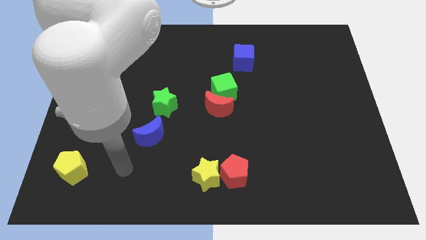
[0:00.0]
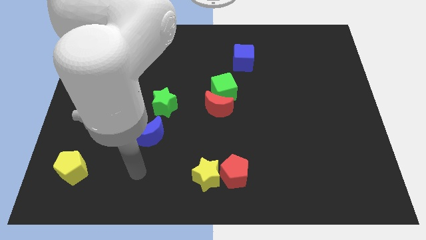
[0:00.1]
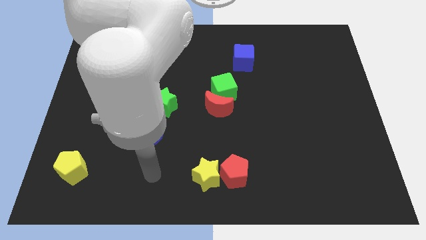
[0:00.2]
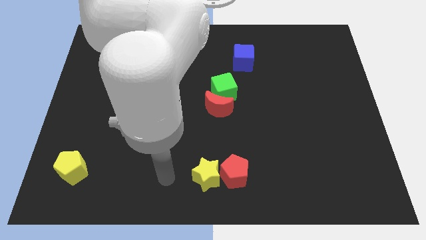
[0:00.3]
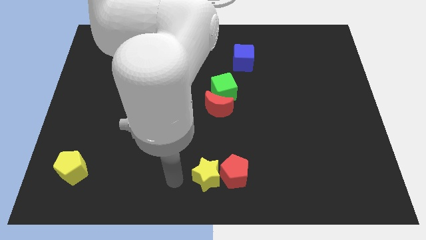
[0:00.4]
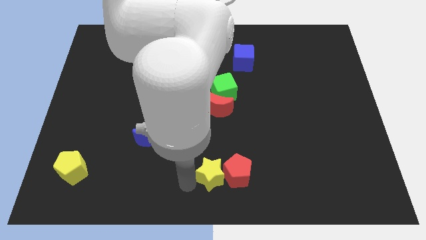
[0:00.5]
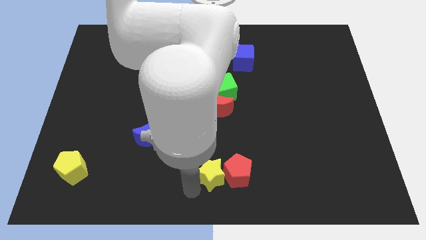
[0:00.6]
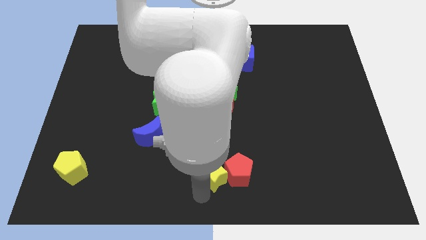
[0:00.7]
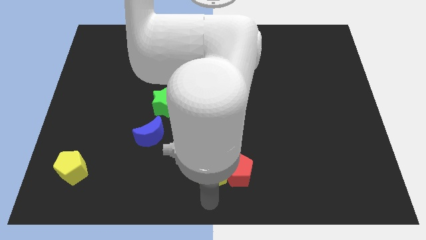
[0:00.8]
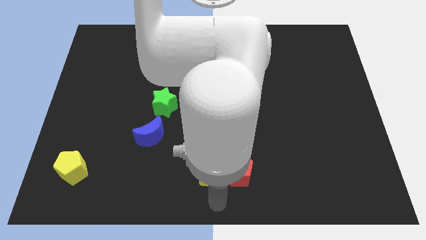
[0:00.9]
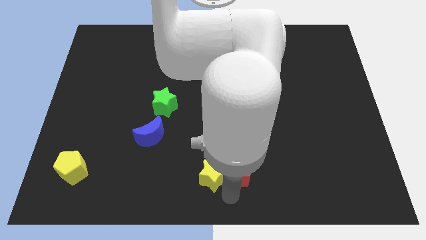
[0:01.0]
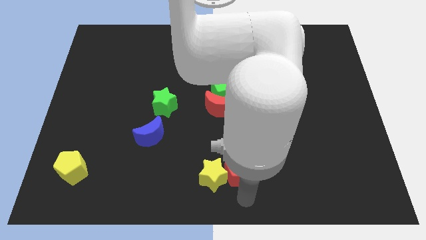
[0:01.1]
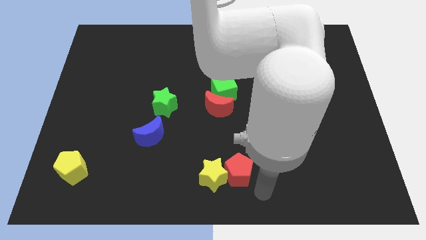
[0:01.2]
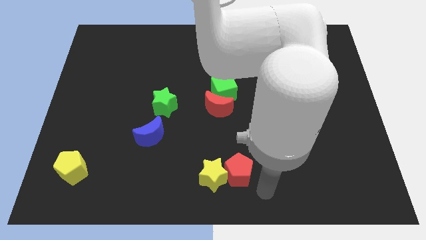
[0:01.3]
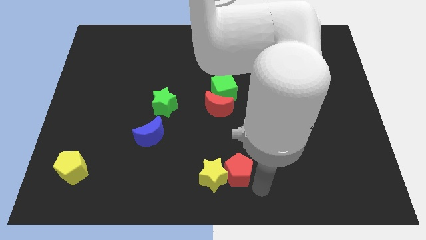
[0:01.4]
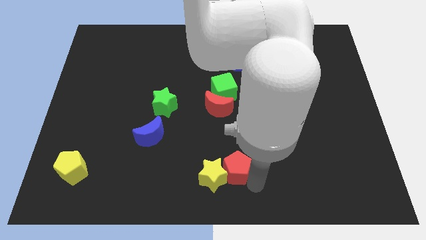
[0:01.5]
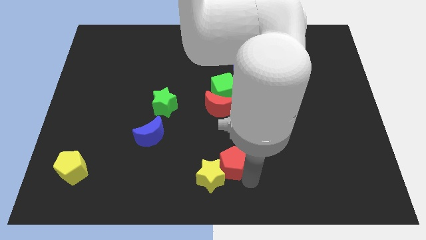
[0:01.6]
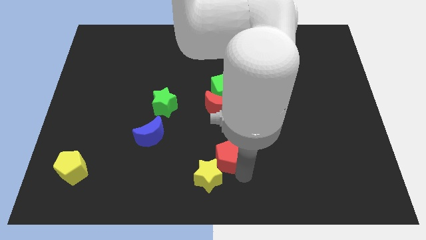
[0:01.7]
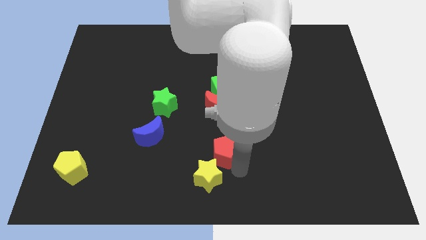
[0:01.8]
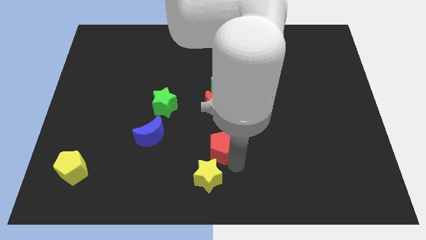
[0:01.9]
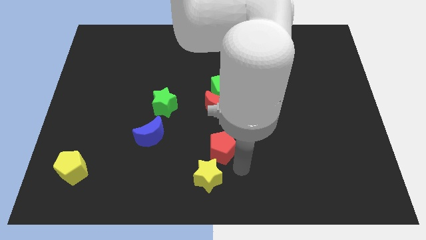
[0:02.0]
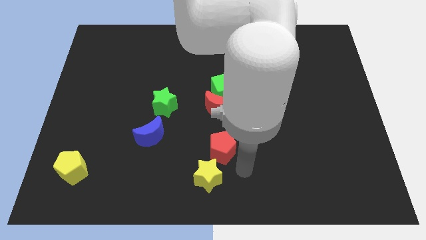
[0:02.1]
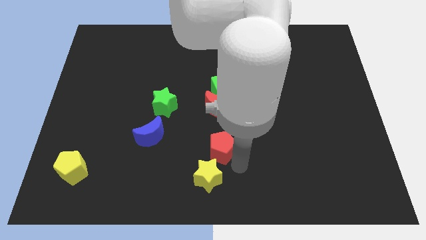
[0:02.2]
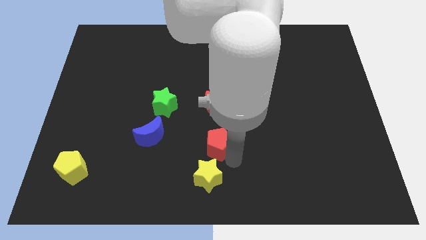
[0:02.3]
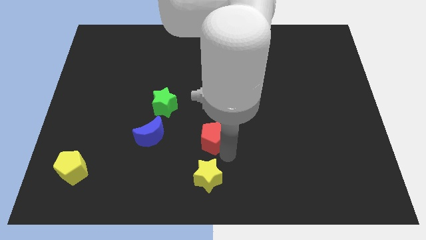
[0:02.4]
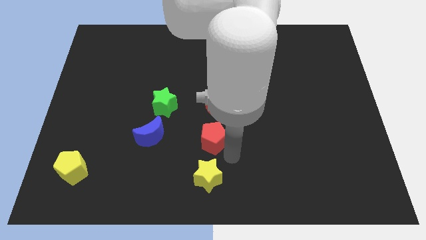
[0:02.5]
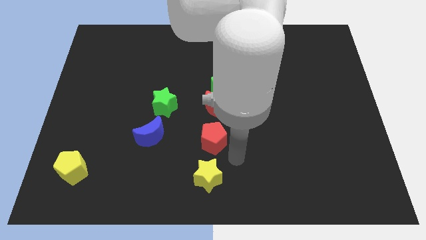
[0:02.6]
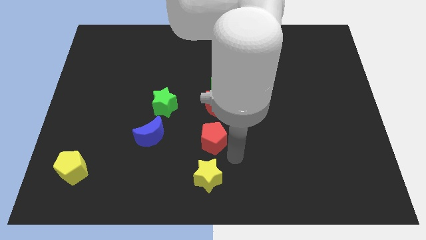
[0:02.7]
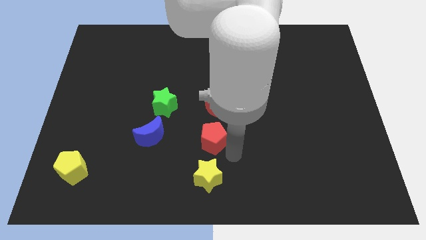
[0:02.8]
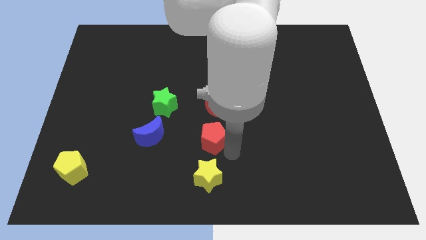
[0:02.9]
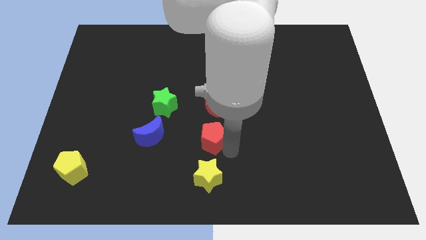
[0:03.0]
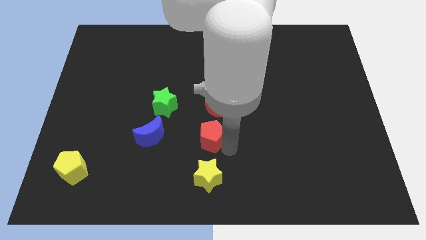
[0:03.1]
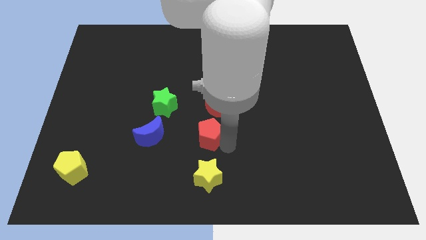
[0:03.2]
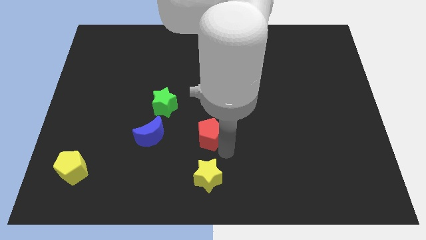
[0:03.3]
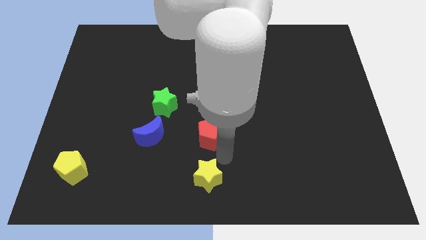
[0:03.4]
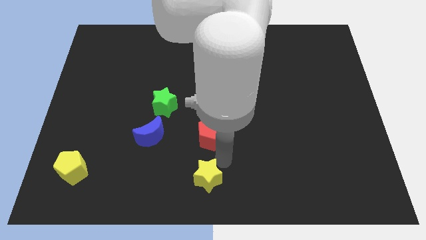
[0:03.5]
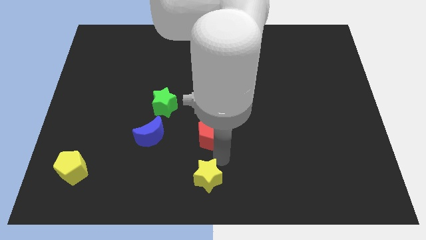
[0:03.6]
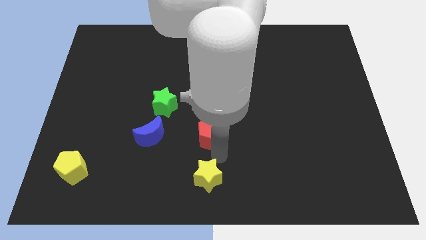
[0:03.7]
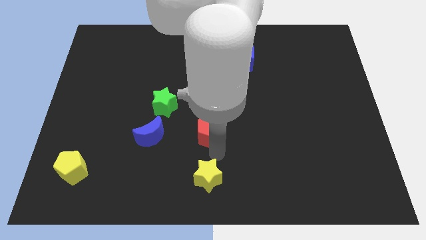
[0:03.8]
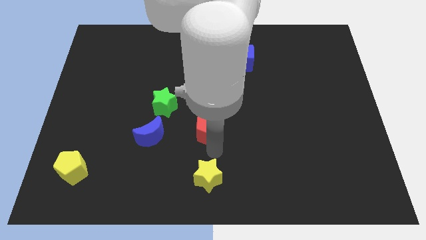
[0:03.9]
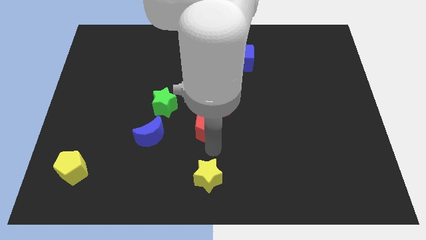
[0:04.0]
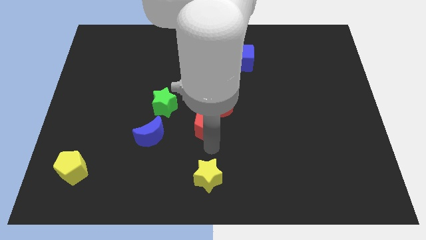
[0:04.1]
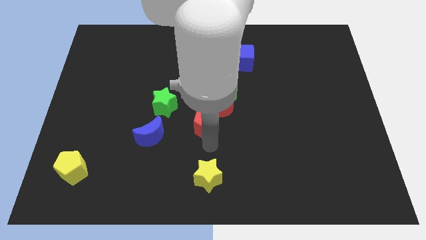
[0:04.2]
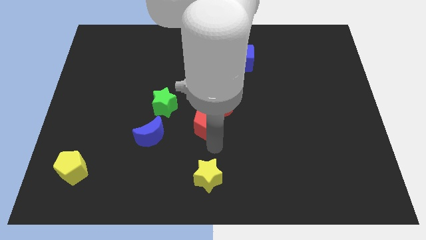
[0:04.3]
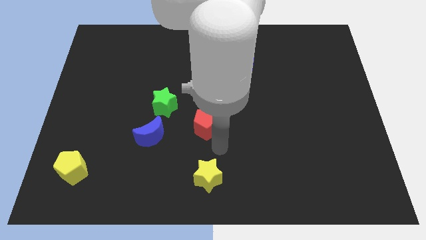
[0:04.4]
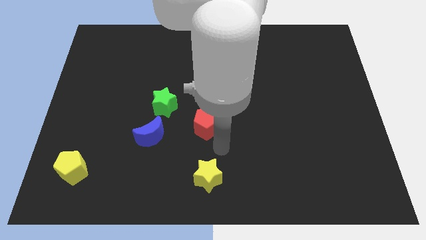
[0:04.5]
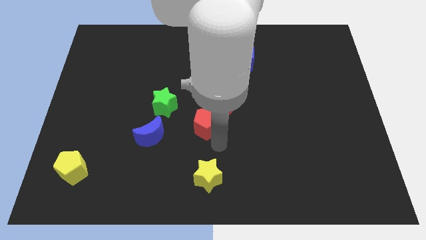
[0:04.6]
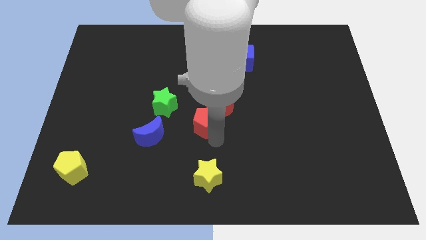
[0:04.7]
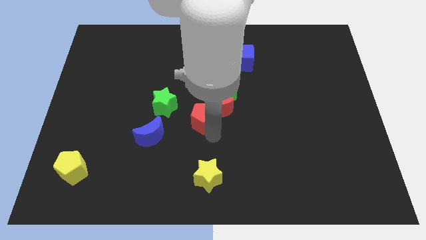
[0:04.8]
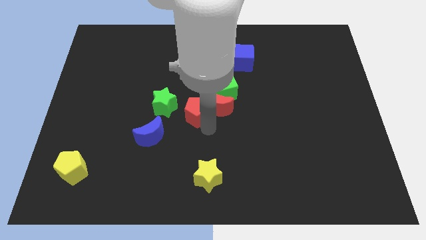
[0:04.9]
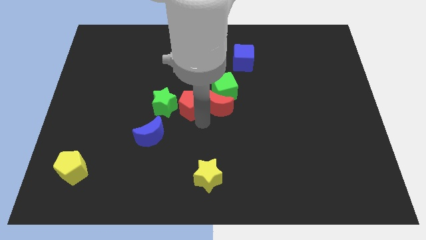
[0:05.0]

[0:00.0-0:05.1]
slide the red pentagon to the top right side of the green star

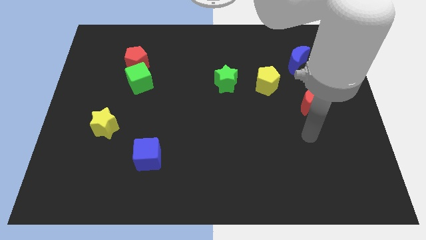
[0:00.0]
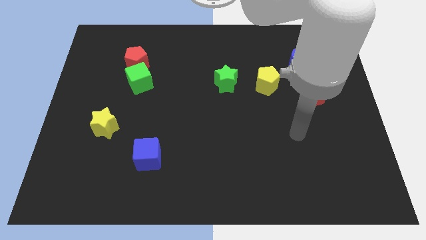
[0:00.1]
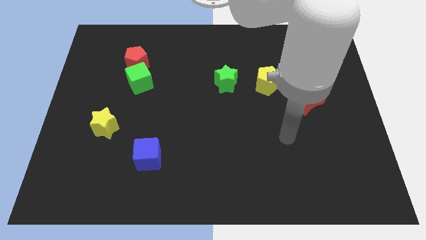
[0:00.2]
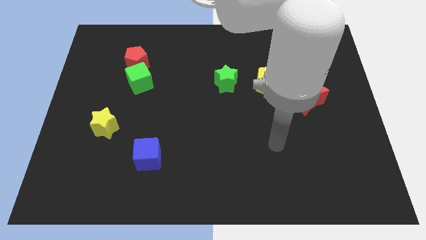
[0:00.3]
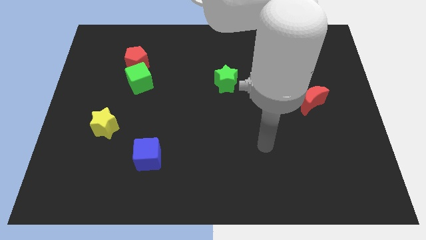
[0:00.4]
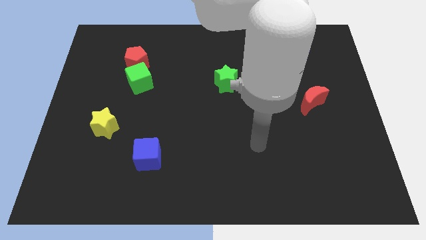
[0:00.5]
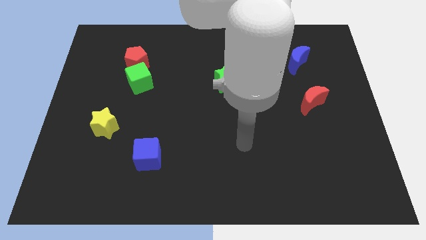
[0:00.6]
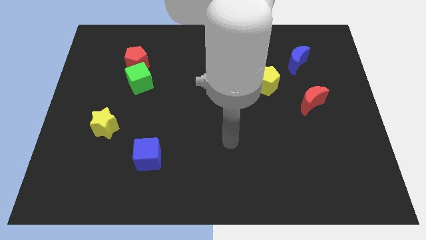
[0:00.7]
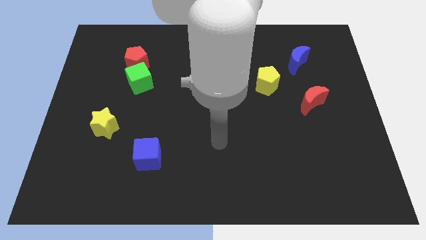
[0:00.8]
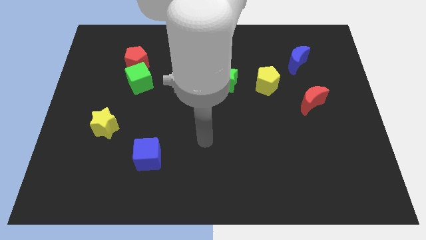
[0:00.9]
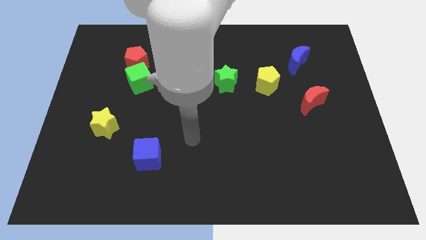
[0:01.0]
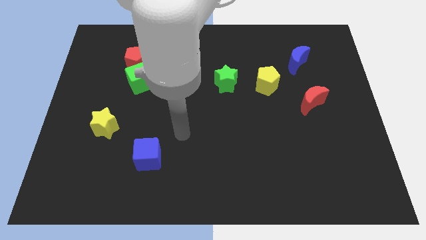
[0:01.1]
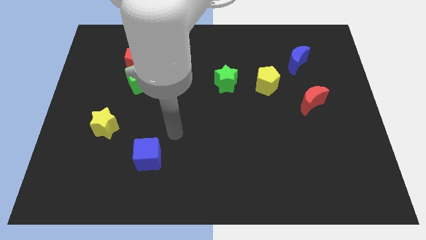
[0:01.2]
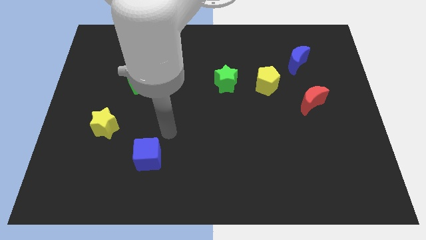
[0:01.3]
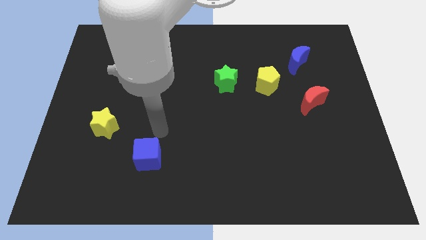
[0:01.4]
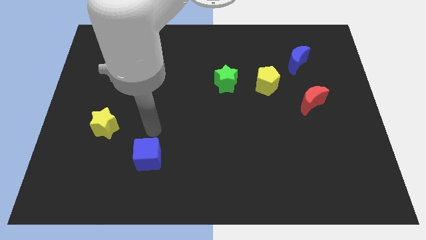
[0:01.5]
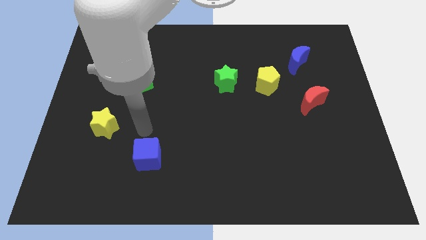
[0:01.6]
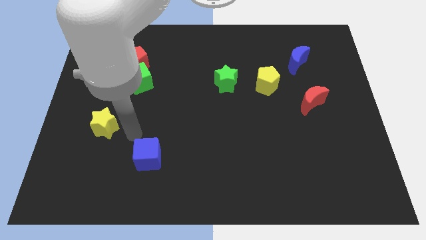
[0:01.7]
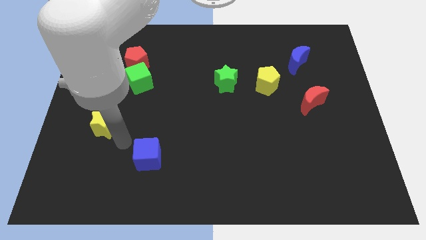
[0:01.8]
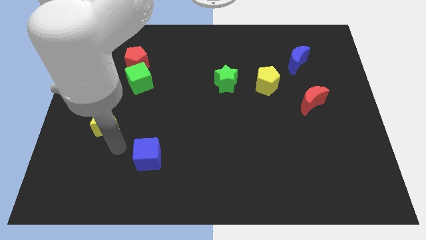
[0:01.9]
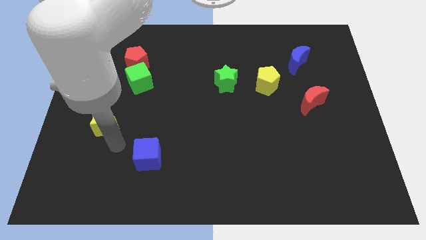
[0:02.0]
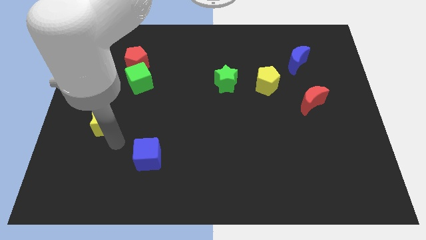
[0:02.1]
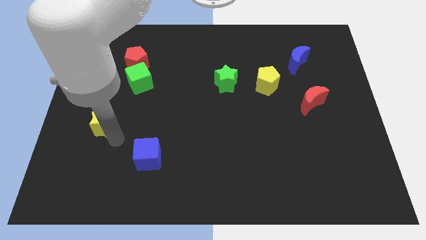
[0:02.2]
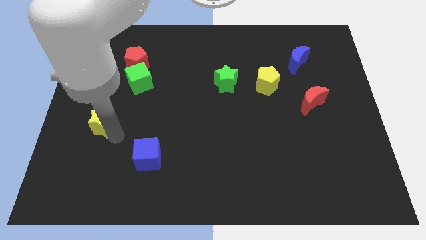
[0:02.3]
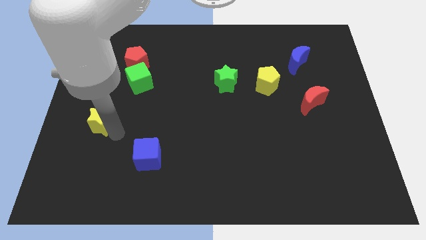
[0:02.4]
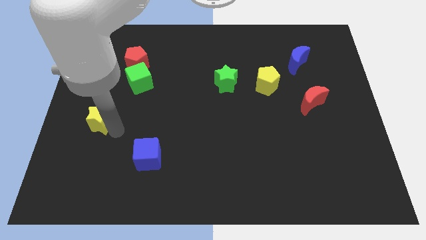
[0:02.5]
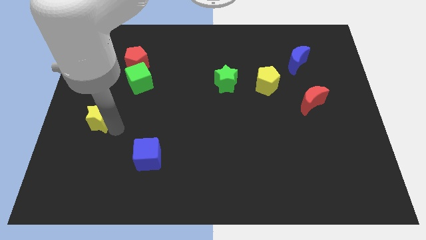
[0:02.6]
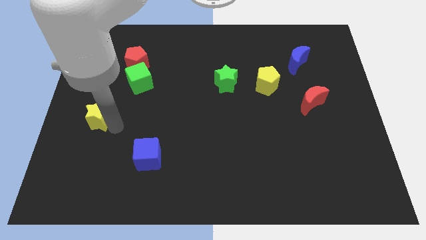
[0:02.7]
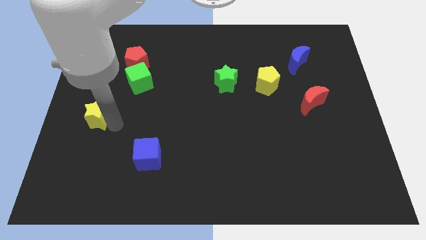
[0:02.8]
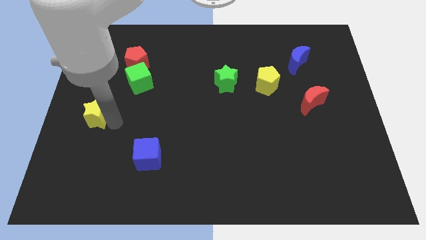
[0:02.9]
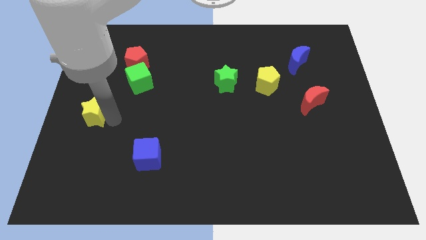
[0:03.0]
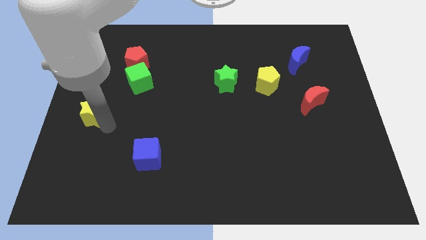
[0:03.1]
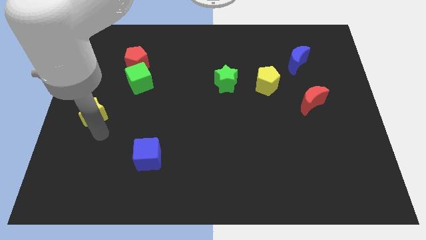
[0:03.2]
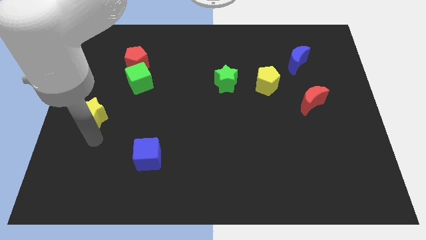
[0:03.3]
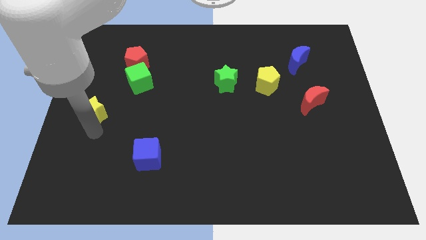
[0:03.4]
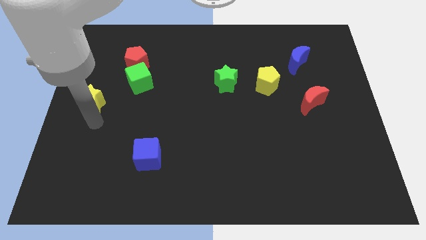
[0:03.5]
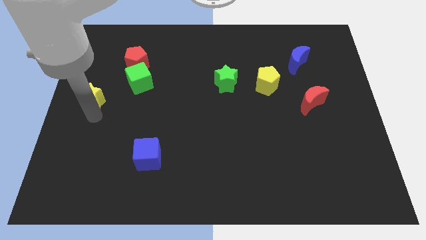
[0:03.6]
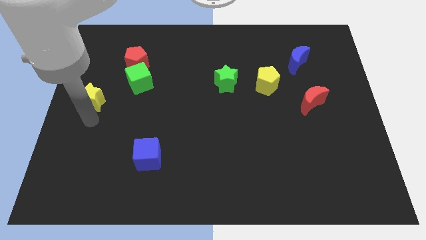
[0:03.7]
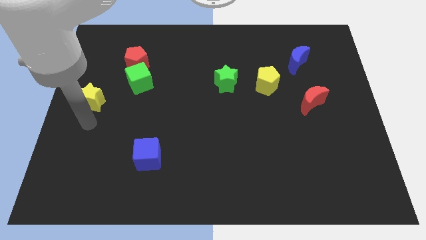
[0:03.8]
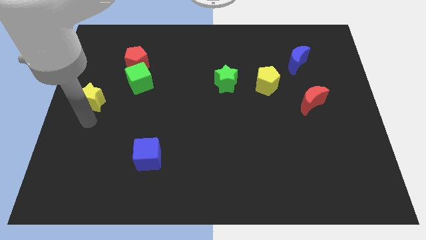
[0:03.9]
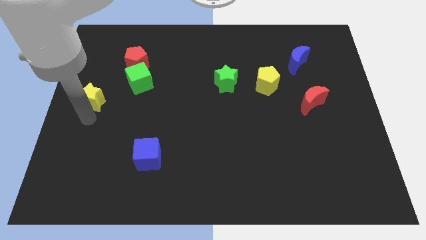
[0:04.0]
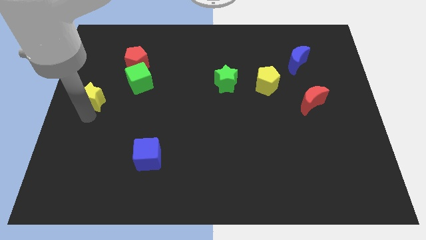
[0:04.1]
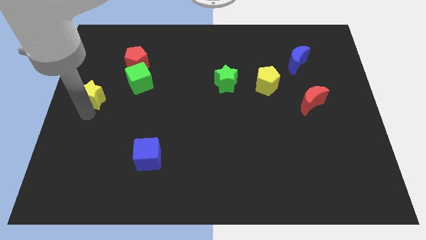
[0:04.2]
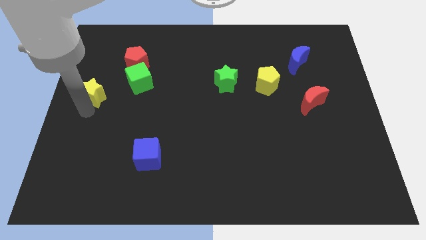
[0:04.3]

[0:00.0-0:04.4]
slide the yellow star left of the green cube
